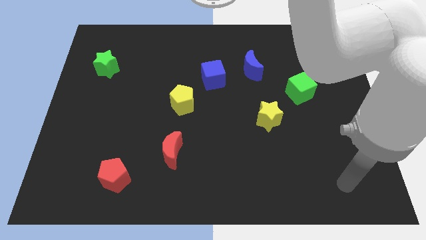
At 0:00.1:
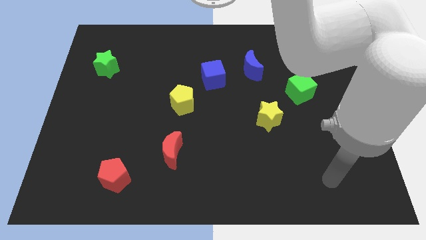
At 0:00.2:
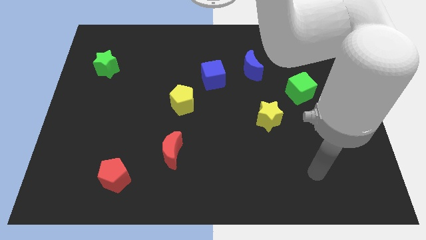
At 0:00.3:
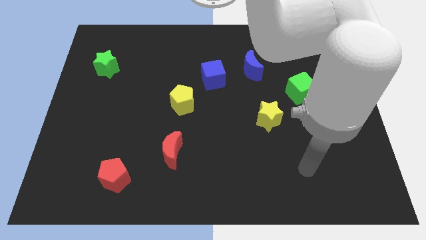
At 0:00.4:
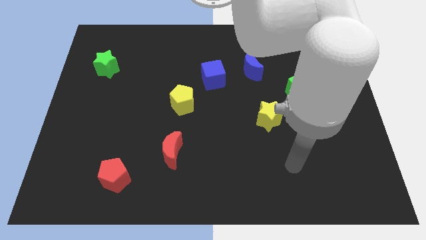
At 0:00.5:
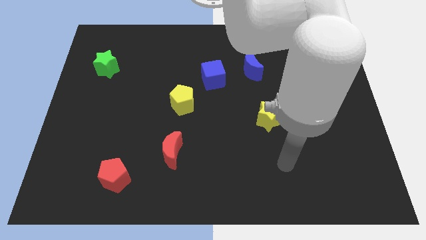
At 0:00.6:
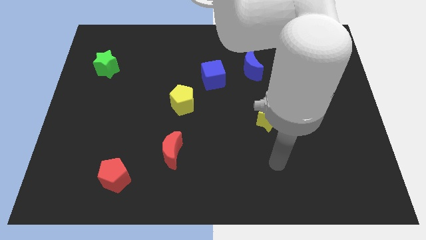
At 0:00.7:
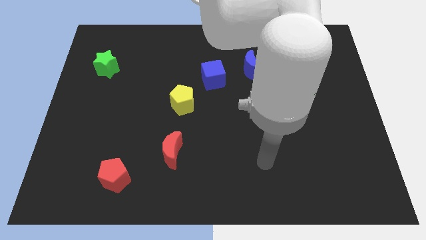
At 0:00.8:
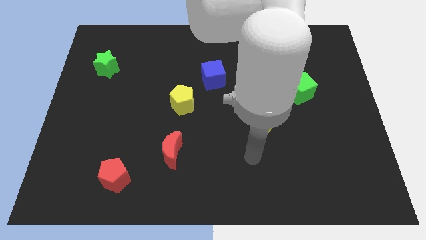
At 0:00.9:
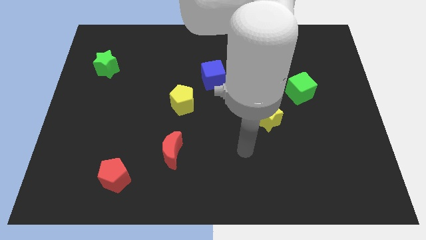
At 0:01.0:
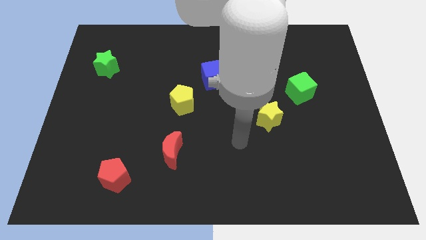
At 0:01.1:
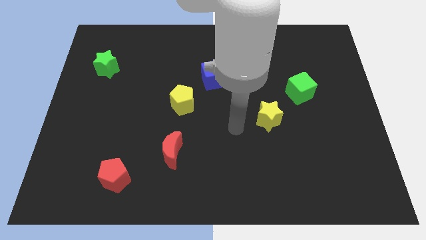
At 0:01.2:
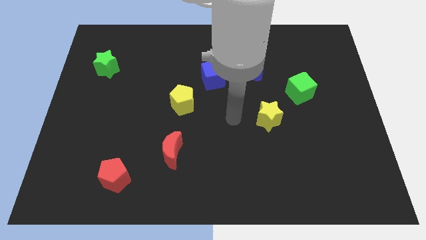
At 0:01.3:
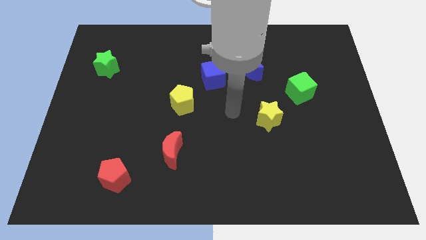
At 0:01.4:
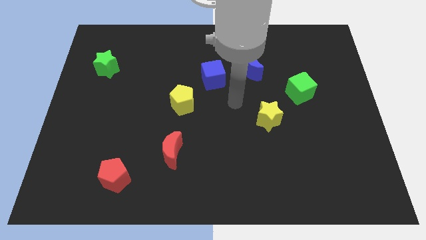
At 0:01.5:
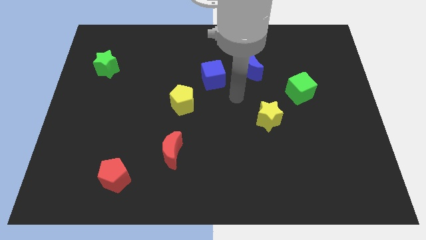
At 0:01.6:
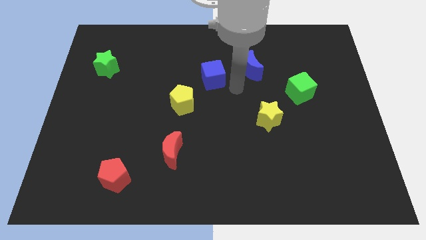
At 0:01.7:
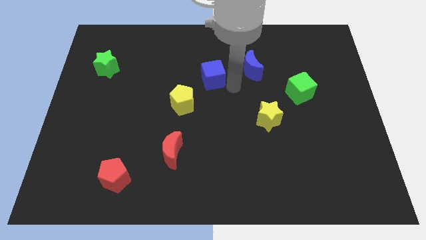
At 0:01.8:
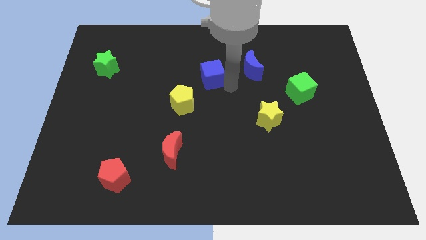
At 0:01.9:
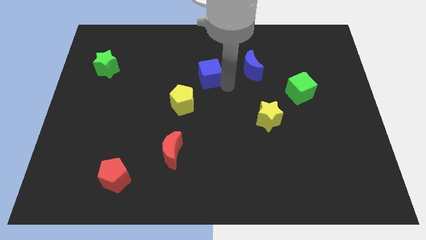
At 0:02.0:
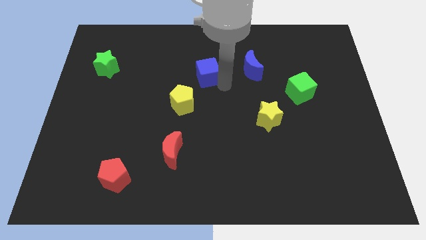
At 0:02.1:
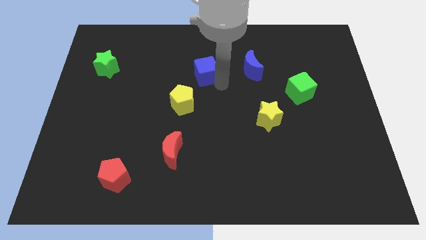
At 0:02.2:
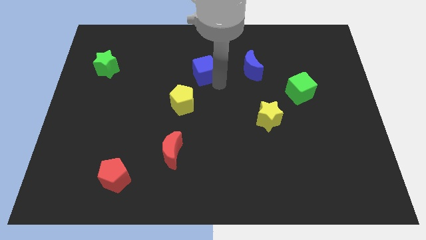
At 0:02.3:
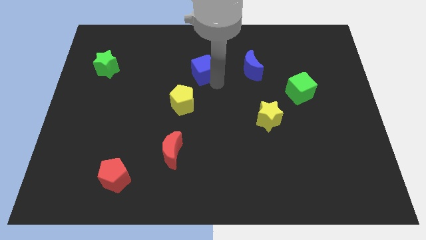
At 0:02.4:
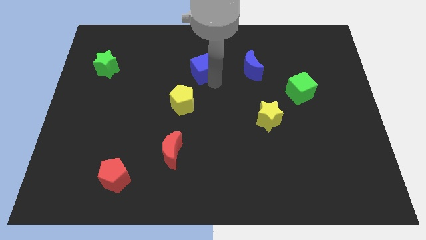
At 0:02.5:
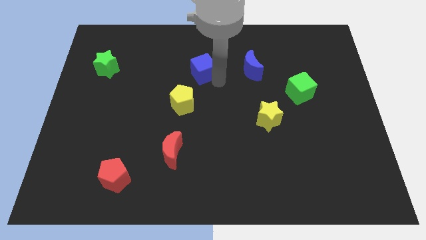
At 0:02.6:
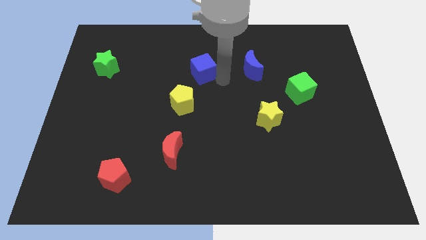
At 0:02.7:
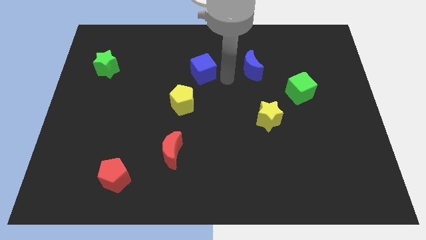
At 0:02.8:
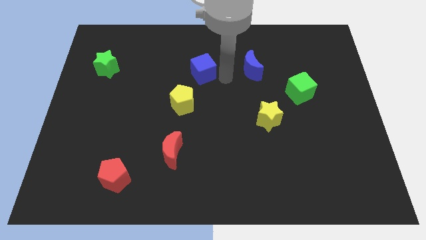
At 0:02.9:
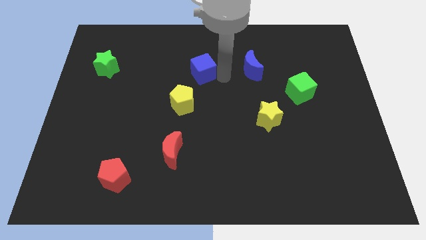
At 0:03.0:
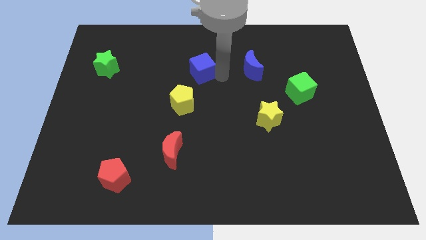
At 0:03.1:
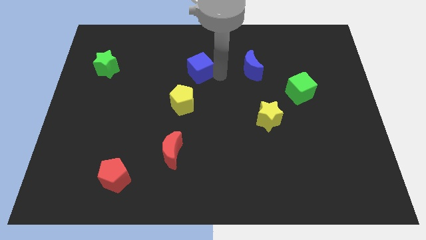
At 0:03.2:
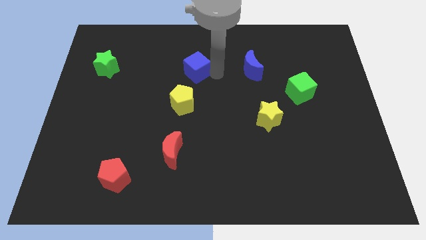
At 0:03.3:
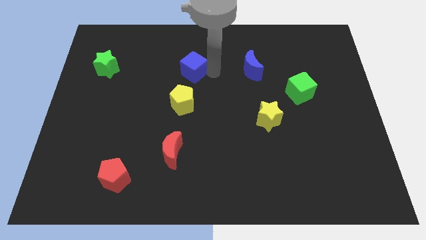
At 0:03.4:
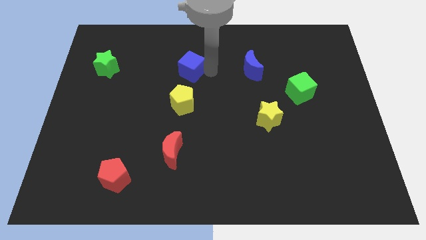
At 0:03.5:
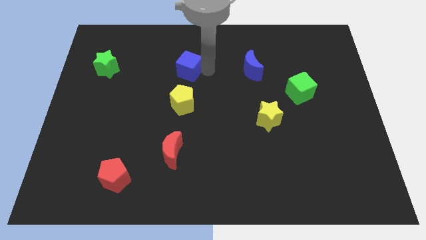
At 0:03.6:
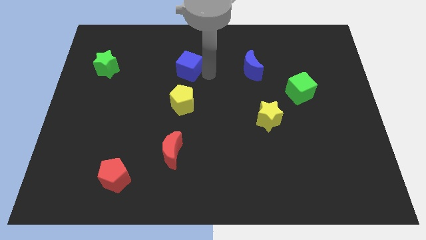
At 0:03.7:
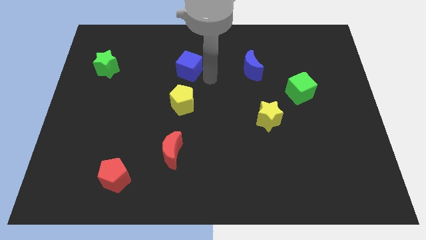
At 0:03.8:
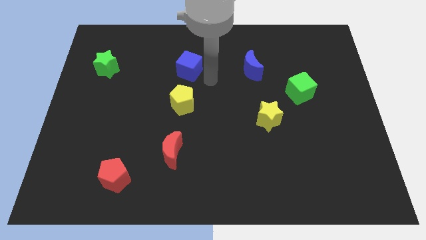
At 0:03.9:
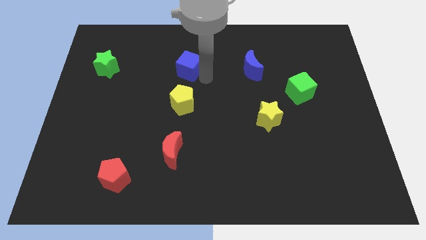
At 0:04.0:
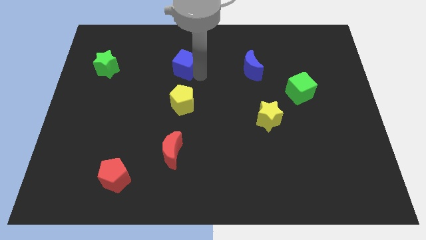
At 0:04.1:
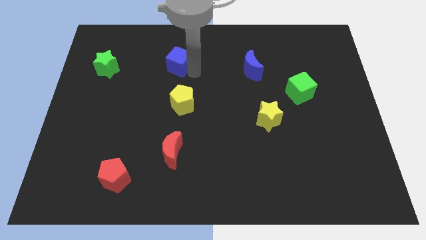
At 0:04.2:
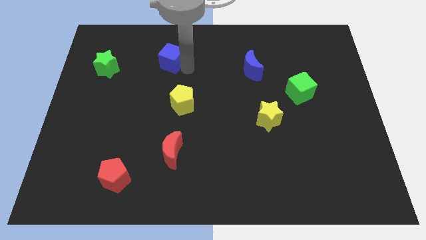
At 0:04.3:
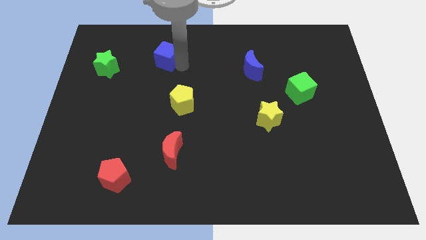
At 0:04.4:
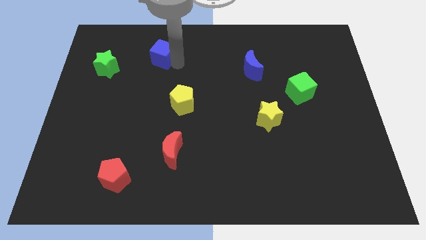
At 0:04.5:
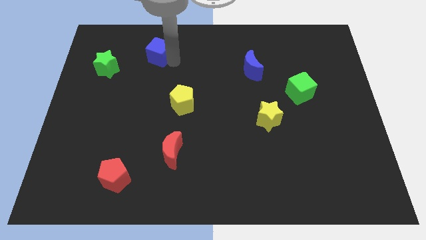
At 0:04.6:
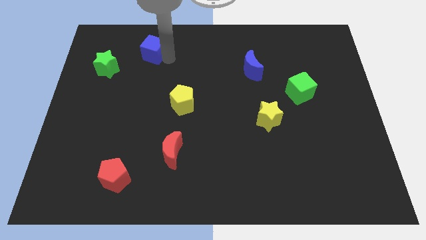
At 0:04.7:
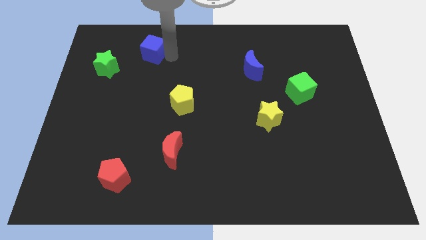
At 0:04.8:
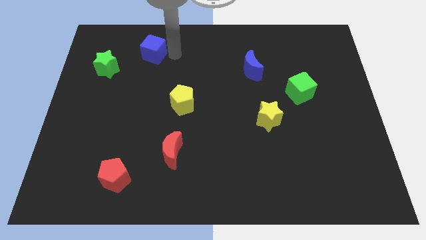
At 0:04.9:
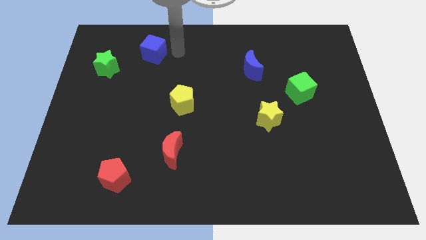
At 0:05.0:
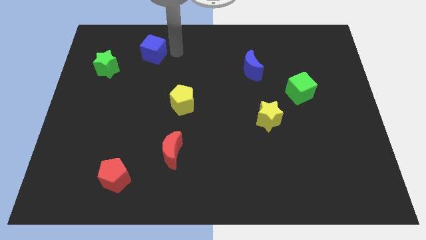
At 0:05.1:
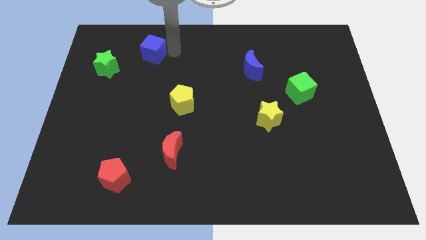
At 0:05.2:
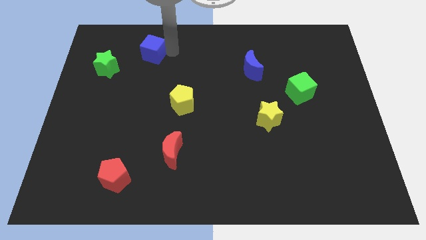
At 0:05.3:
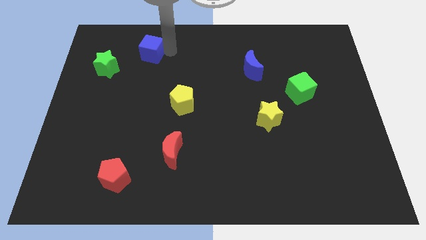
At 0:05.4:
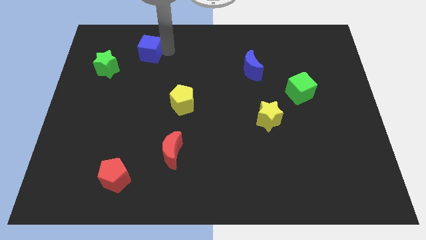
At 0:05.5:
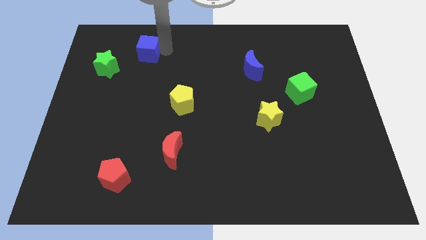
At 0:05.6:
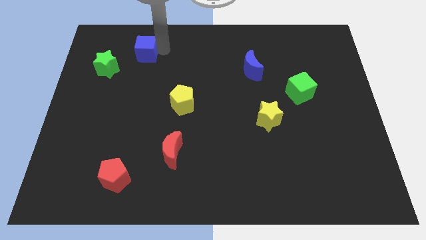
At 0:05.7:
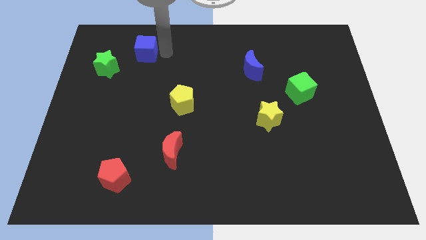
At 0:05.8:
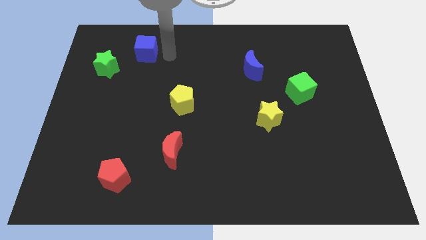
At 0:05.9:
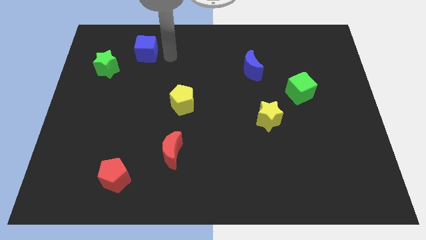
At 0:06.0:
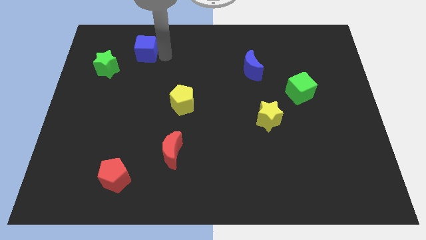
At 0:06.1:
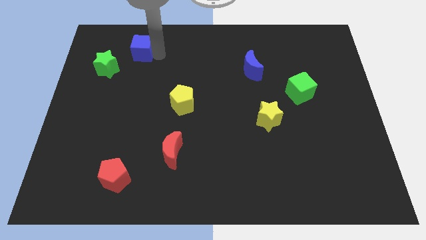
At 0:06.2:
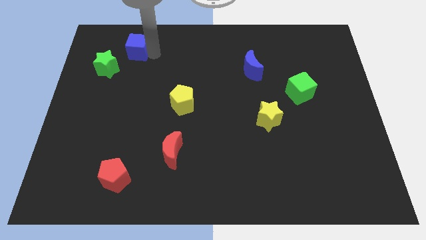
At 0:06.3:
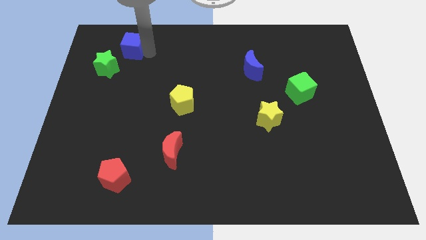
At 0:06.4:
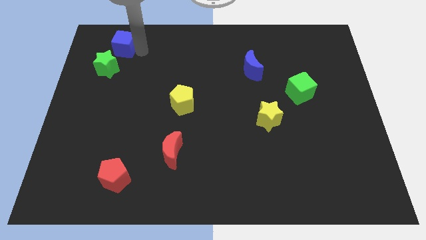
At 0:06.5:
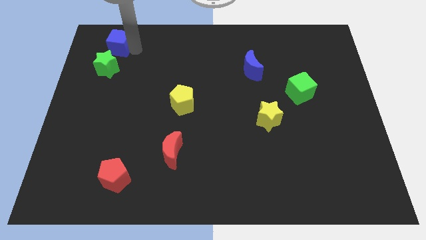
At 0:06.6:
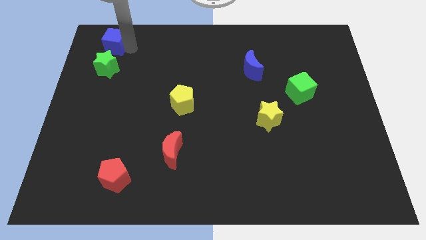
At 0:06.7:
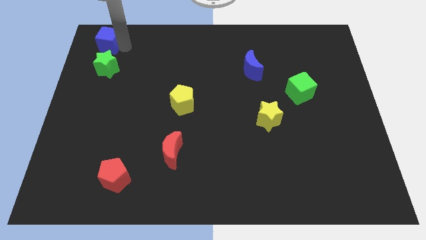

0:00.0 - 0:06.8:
slide the blue cube to the upper left corner
